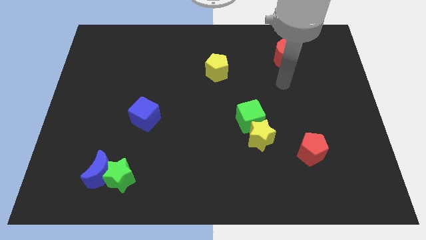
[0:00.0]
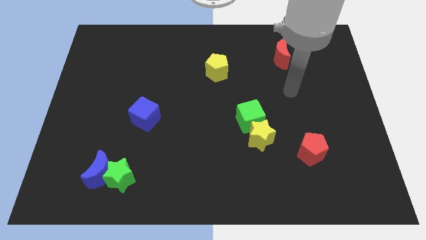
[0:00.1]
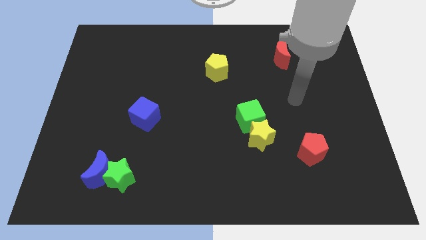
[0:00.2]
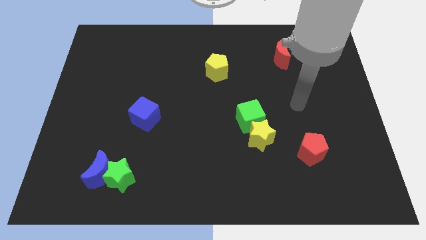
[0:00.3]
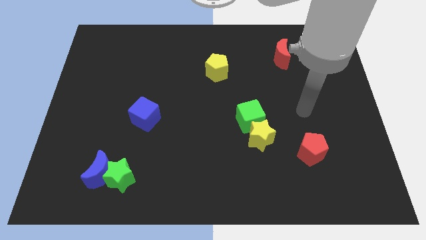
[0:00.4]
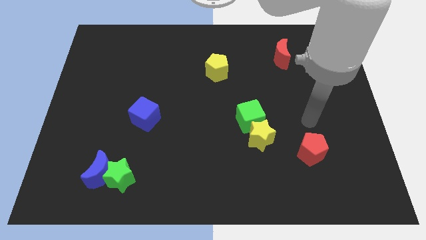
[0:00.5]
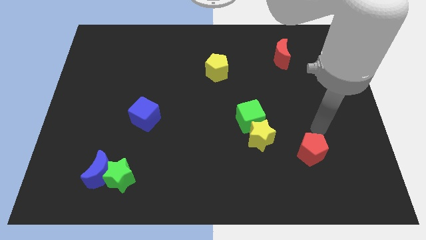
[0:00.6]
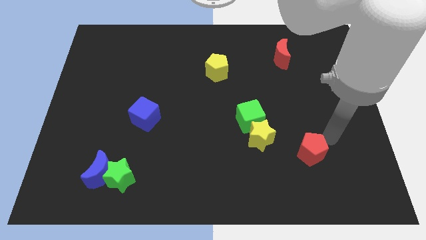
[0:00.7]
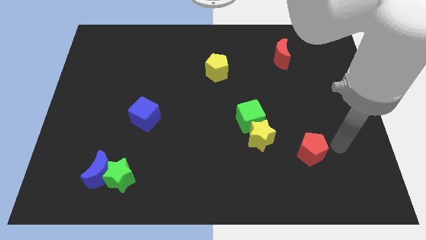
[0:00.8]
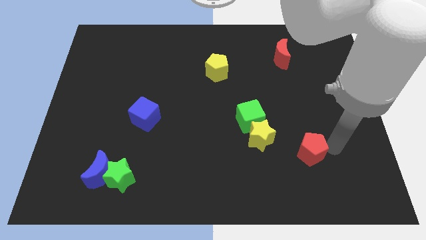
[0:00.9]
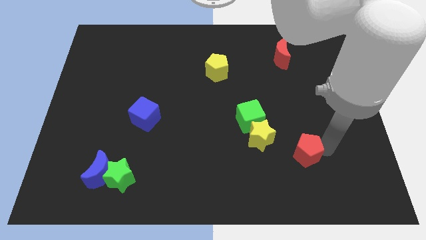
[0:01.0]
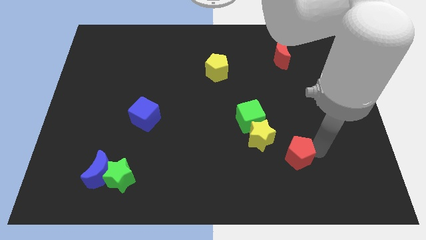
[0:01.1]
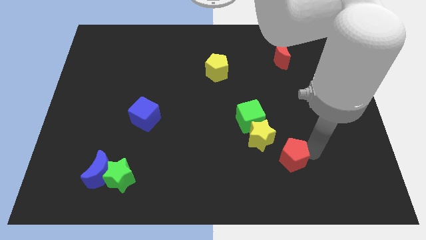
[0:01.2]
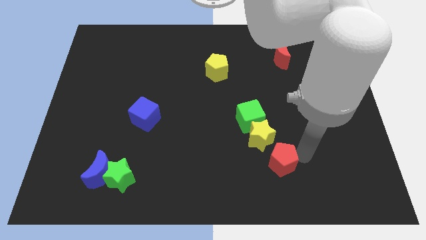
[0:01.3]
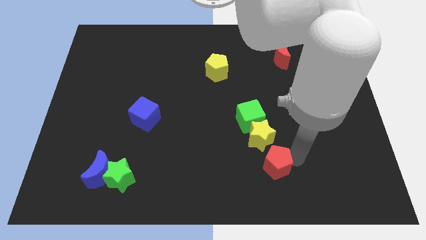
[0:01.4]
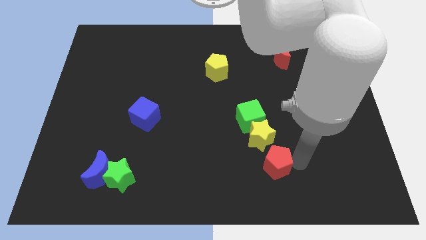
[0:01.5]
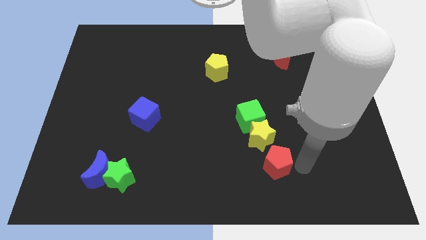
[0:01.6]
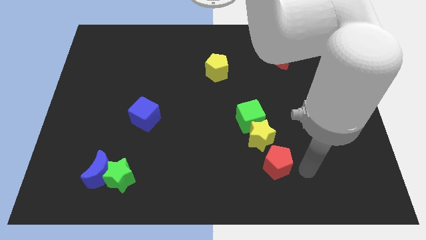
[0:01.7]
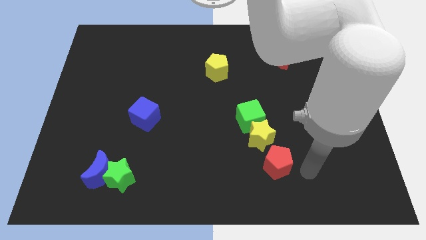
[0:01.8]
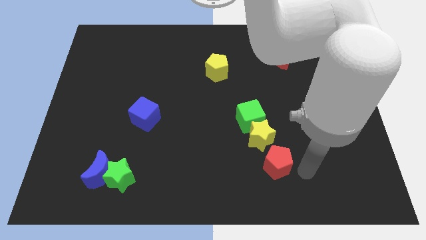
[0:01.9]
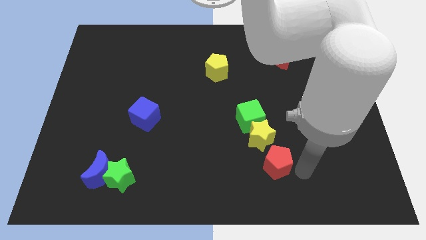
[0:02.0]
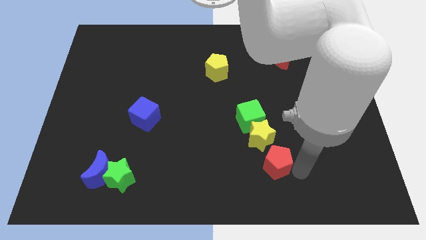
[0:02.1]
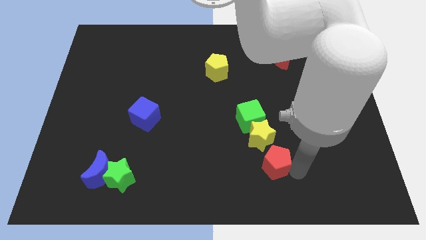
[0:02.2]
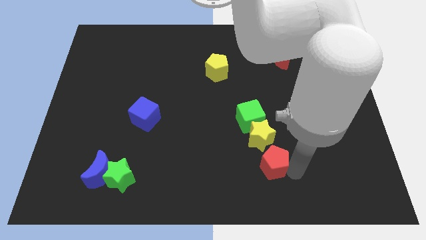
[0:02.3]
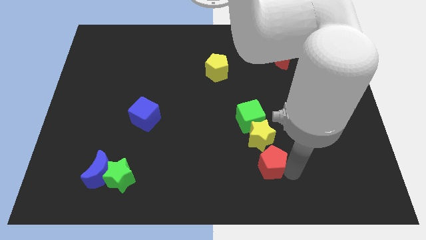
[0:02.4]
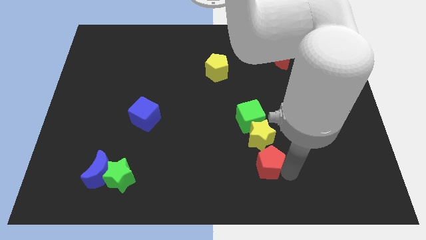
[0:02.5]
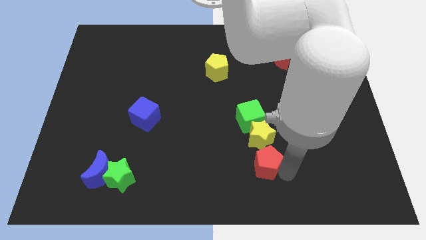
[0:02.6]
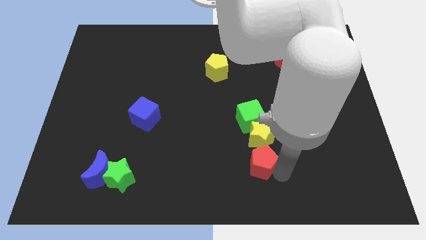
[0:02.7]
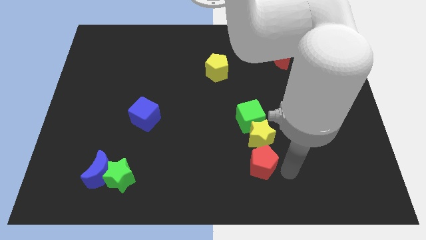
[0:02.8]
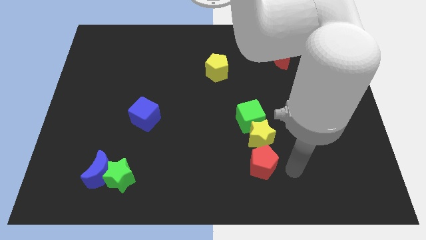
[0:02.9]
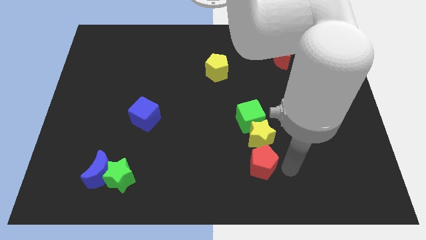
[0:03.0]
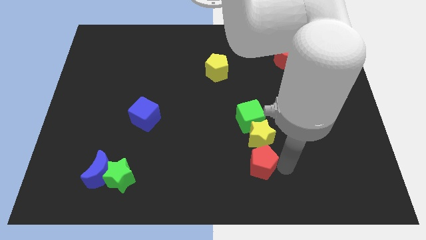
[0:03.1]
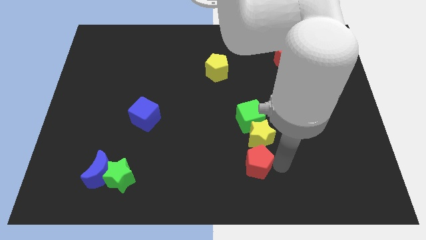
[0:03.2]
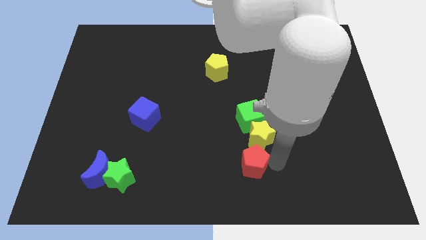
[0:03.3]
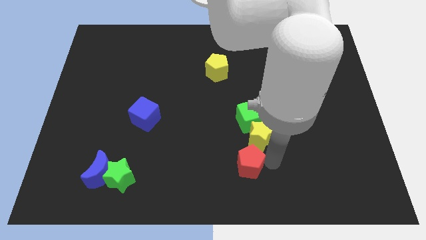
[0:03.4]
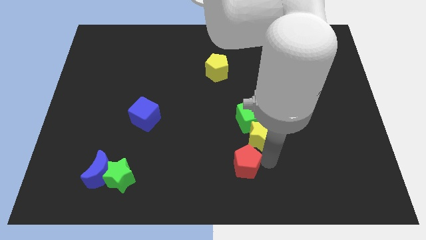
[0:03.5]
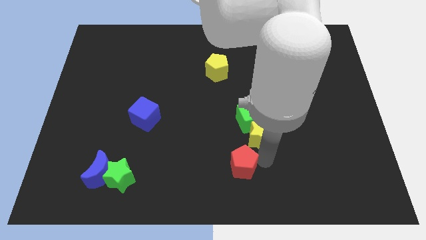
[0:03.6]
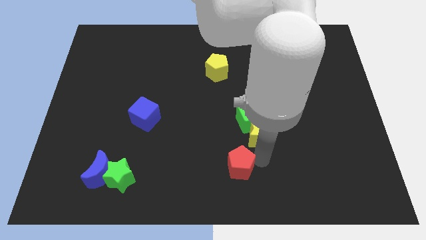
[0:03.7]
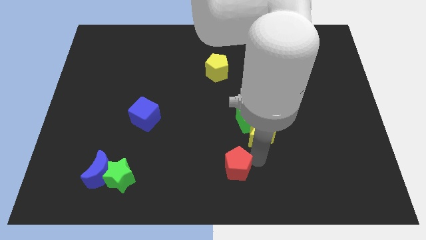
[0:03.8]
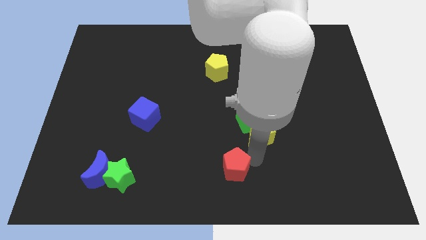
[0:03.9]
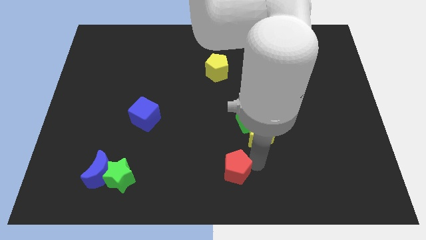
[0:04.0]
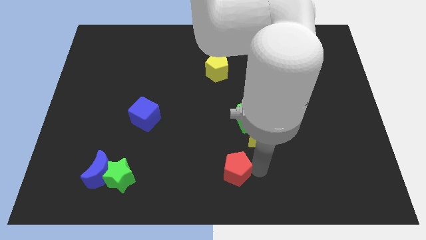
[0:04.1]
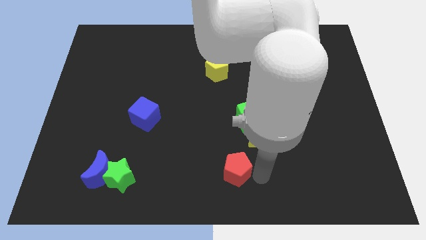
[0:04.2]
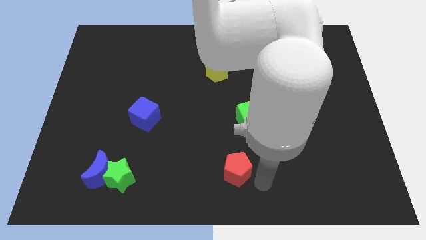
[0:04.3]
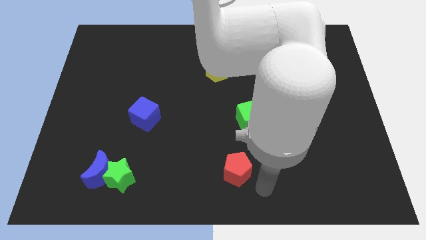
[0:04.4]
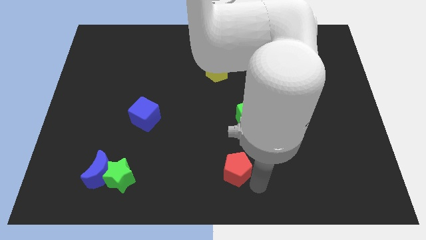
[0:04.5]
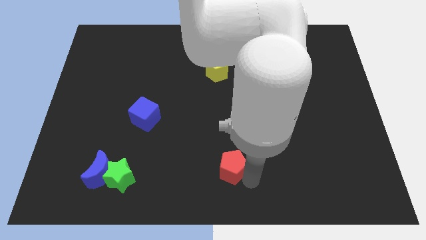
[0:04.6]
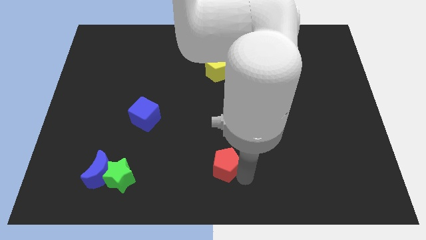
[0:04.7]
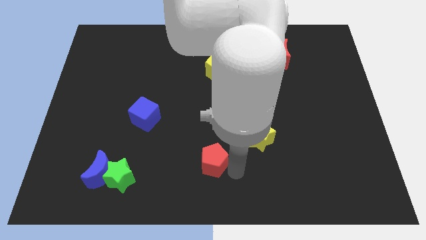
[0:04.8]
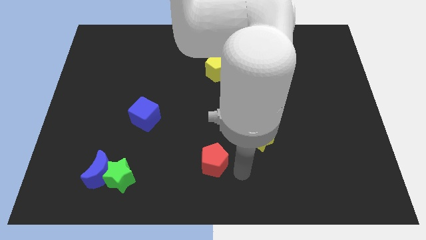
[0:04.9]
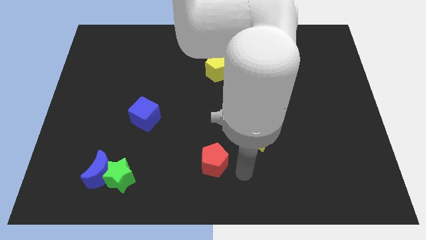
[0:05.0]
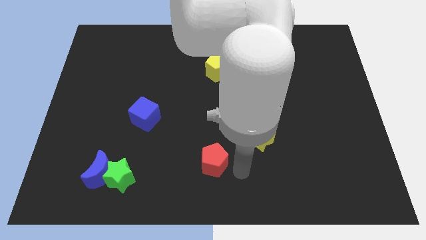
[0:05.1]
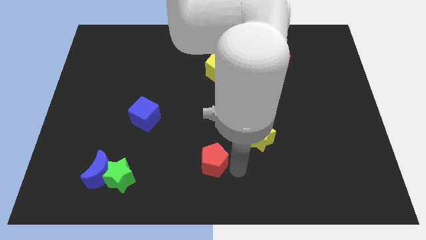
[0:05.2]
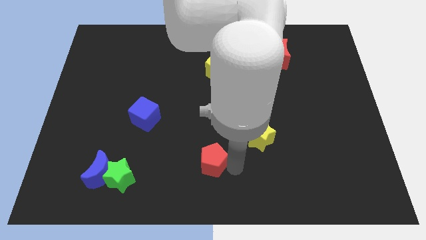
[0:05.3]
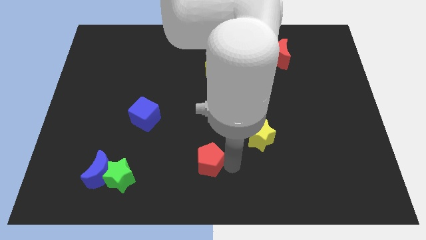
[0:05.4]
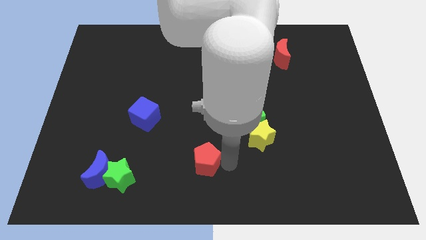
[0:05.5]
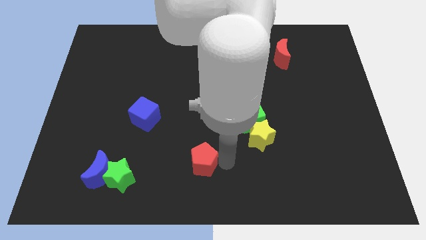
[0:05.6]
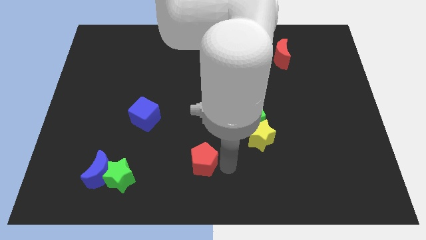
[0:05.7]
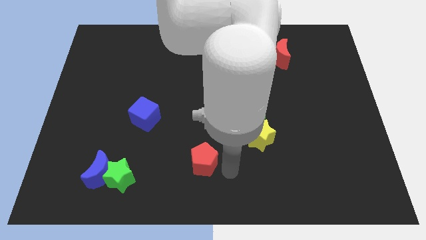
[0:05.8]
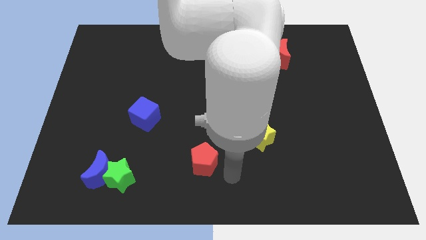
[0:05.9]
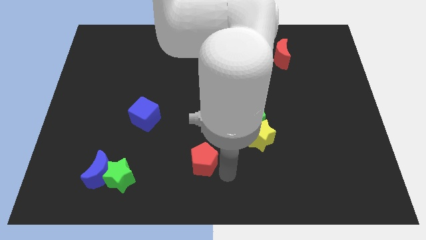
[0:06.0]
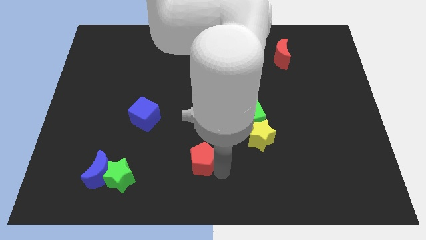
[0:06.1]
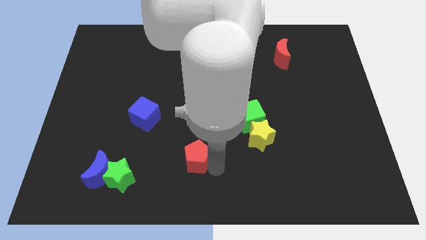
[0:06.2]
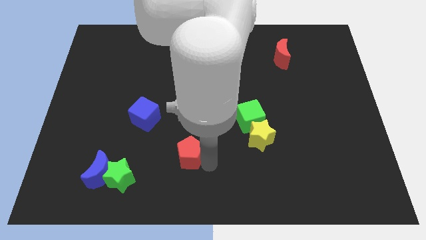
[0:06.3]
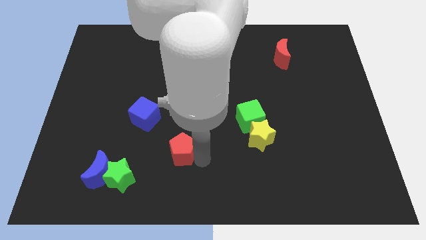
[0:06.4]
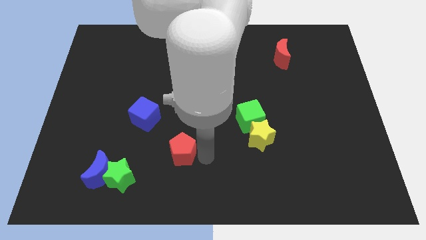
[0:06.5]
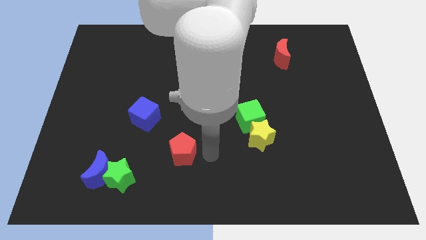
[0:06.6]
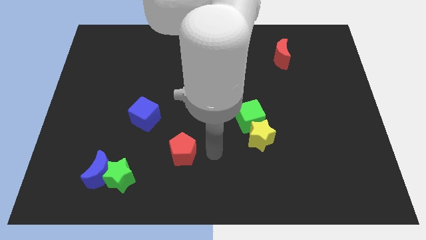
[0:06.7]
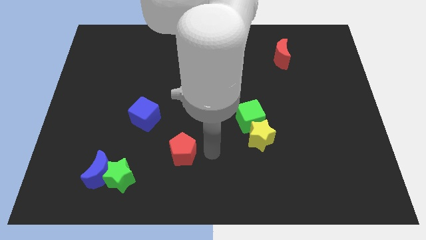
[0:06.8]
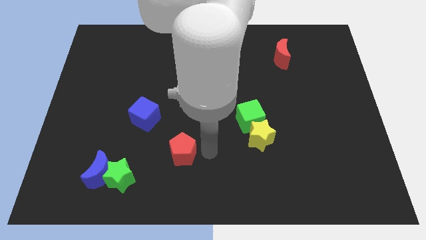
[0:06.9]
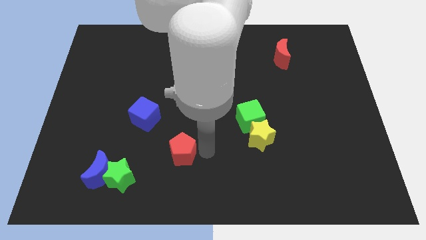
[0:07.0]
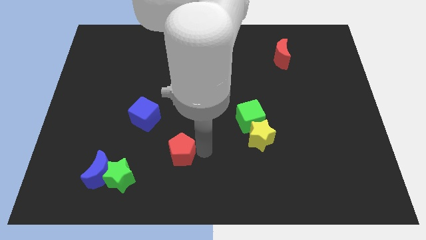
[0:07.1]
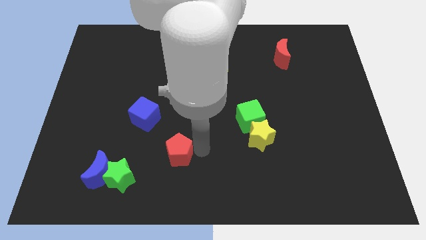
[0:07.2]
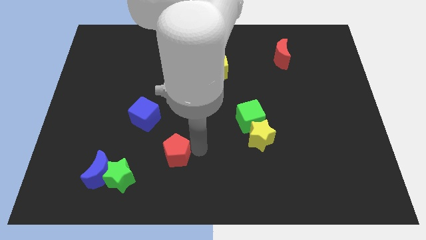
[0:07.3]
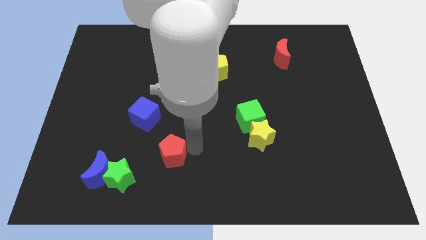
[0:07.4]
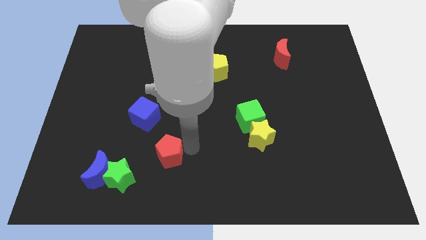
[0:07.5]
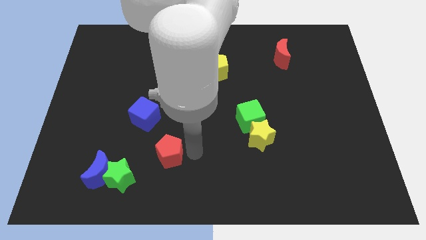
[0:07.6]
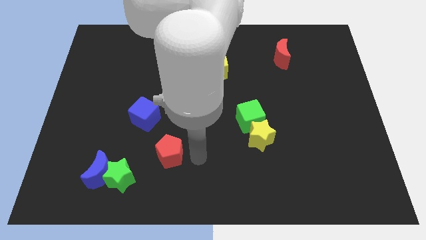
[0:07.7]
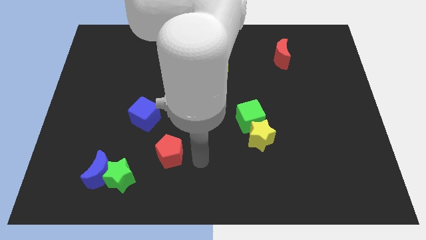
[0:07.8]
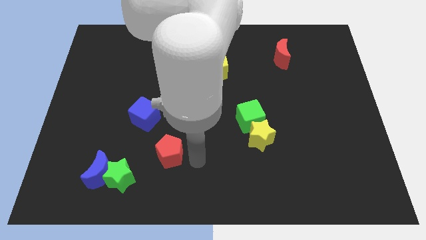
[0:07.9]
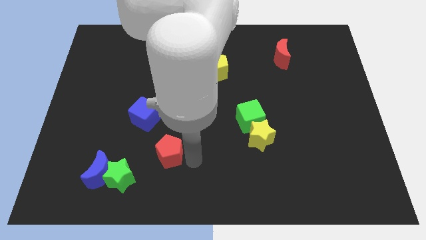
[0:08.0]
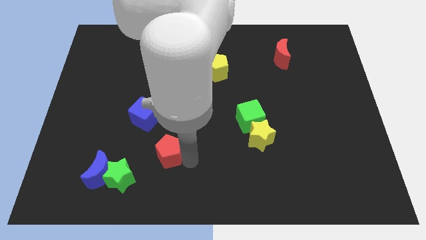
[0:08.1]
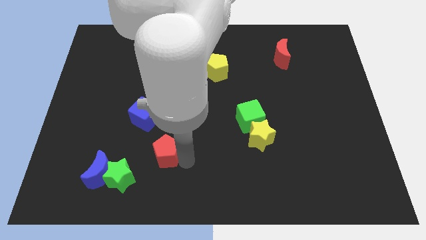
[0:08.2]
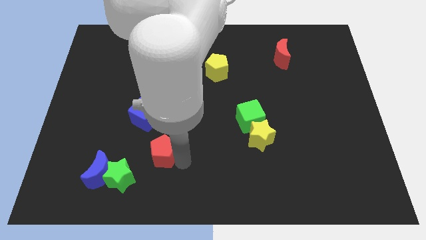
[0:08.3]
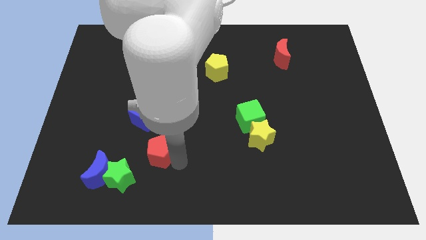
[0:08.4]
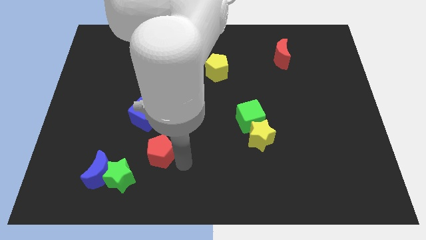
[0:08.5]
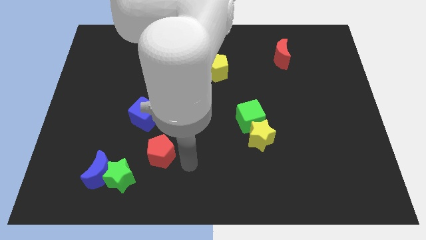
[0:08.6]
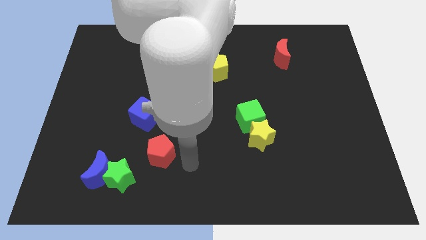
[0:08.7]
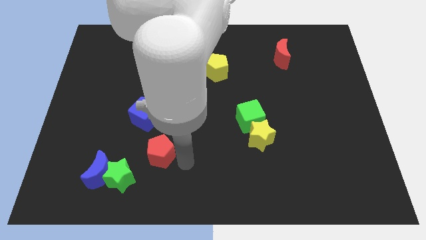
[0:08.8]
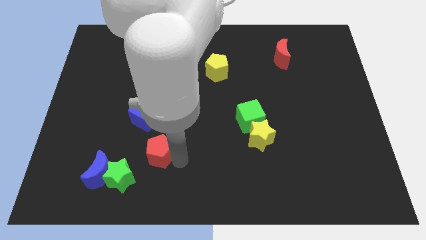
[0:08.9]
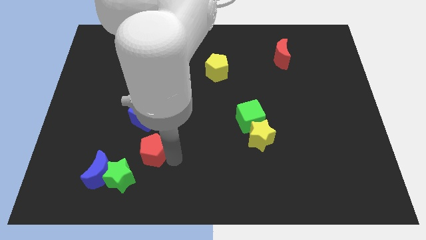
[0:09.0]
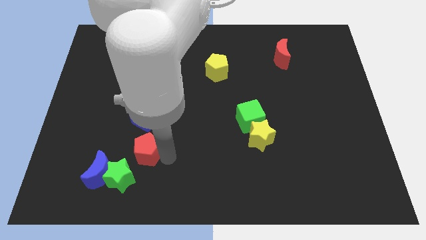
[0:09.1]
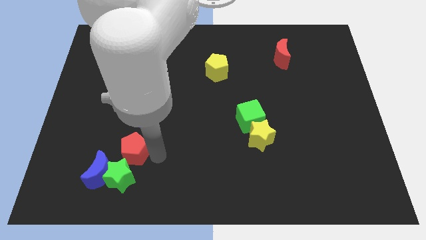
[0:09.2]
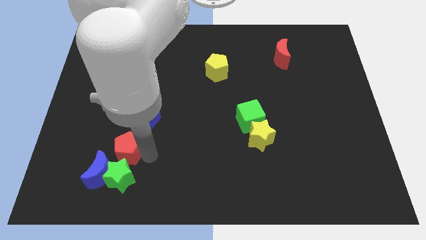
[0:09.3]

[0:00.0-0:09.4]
put the red pentagon to the bottom left of the blue cube
